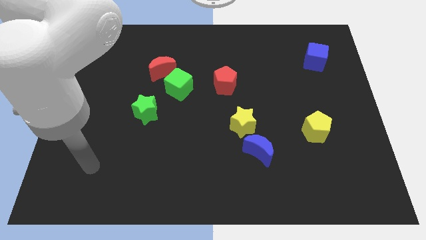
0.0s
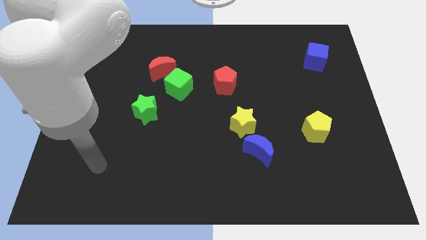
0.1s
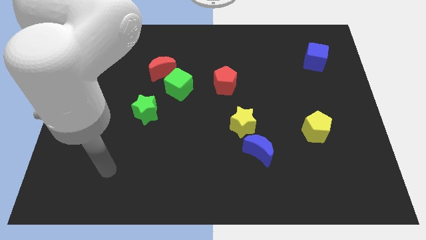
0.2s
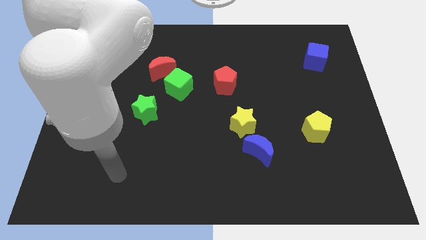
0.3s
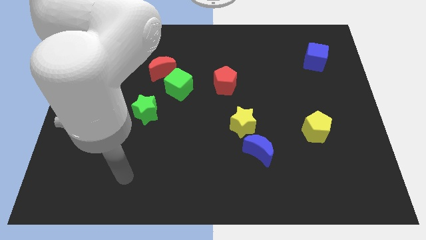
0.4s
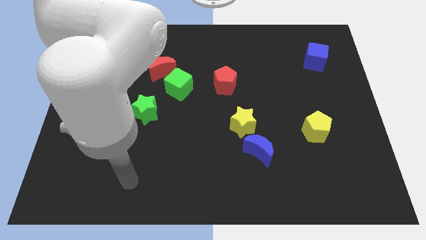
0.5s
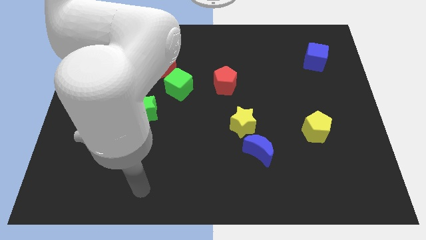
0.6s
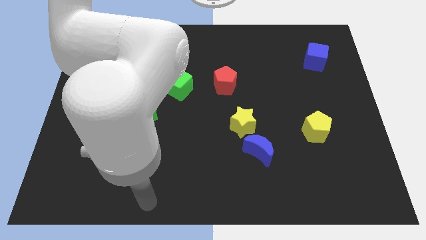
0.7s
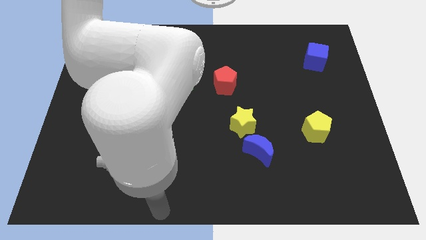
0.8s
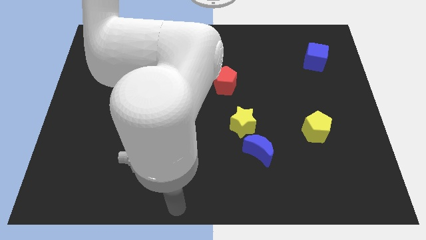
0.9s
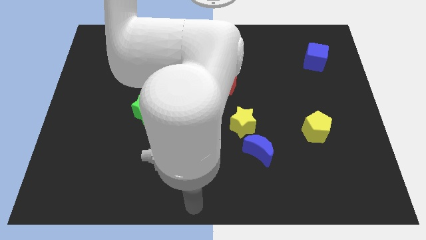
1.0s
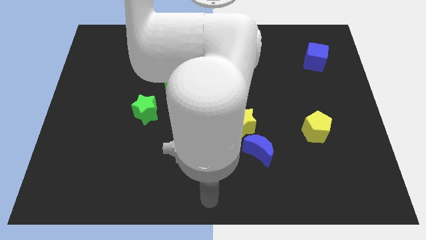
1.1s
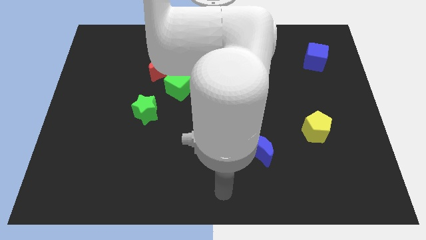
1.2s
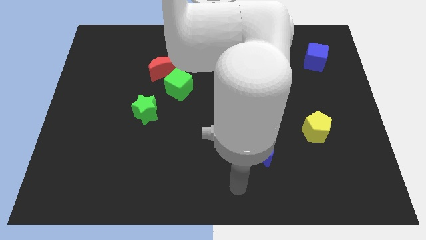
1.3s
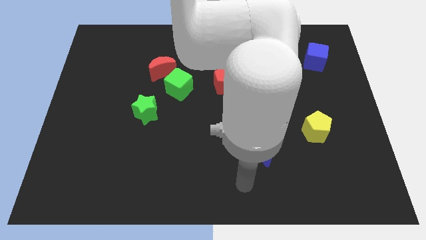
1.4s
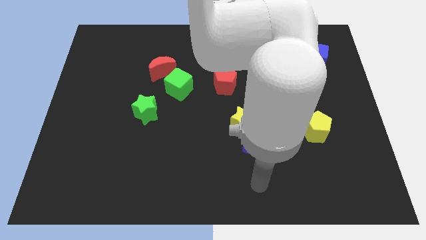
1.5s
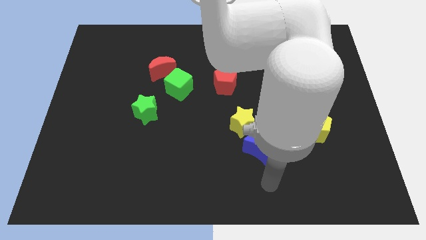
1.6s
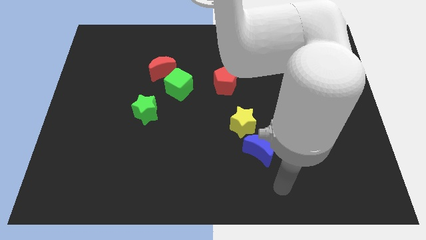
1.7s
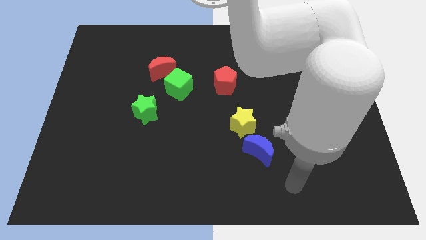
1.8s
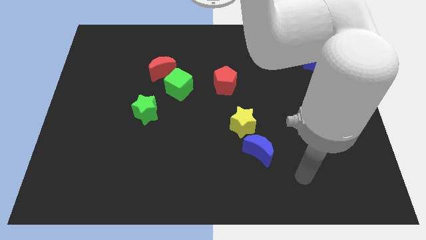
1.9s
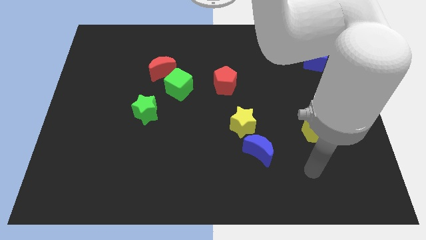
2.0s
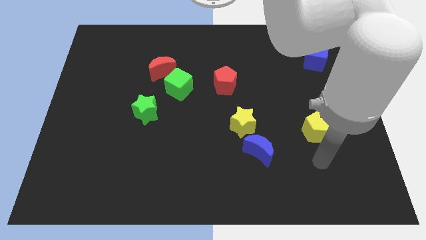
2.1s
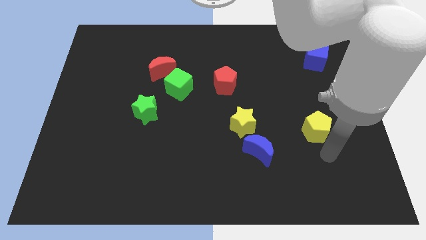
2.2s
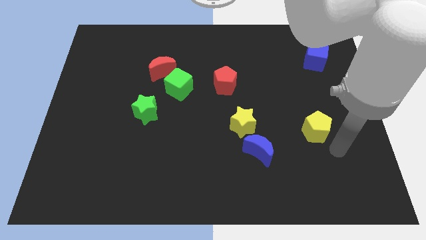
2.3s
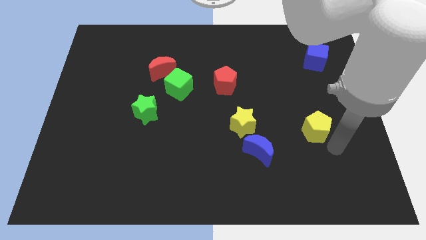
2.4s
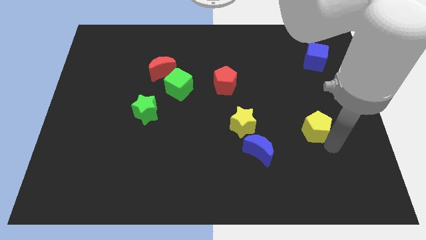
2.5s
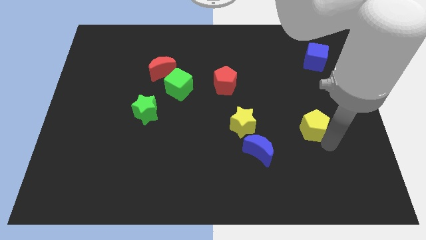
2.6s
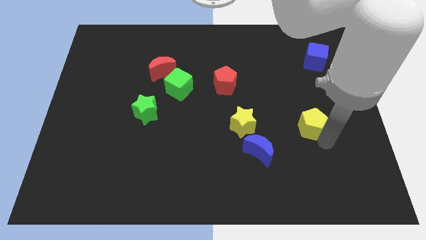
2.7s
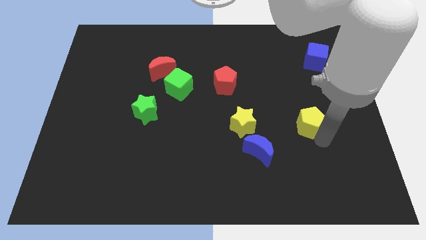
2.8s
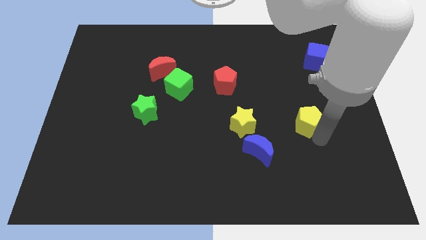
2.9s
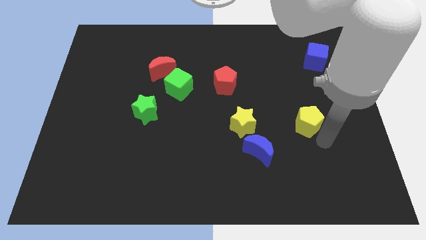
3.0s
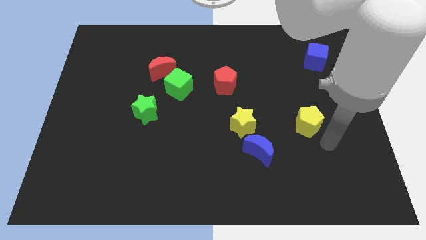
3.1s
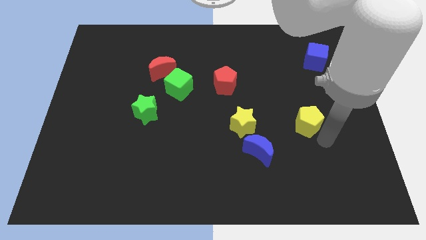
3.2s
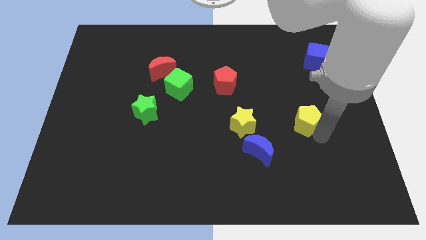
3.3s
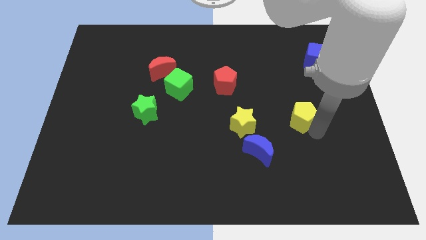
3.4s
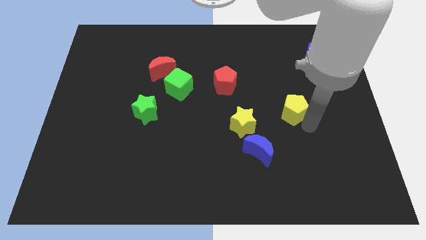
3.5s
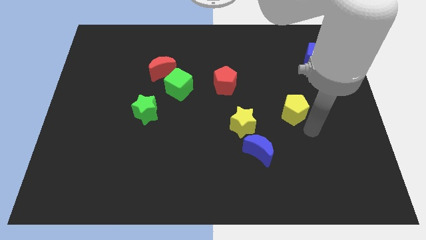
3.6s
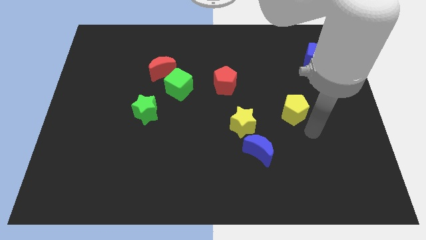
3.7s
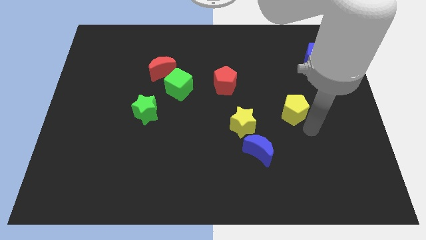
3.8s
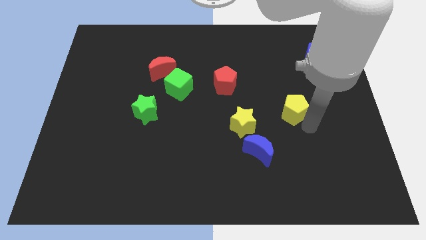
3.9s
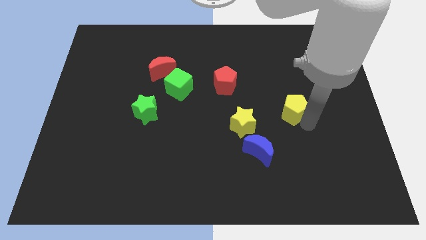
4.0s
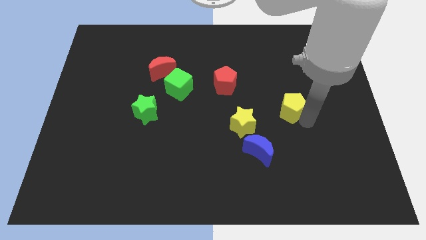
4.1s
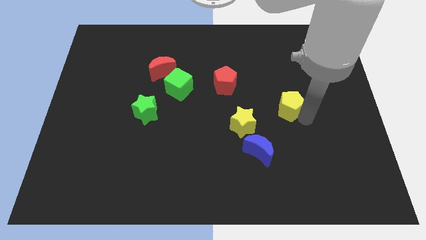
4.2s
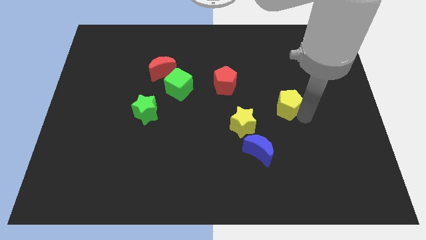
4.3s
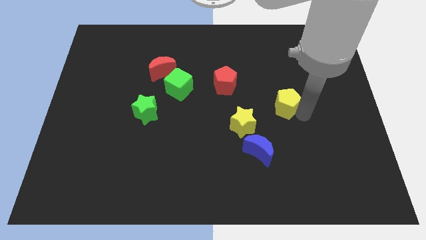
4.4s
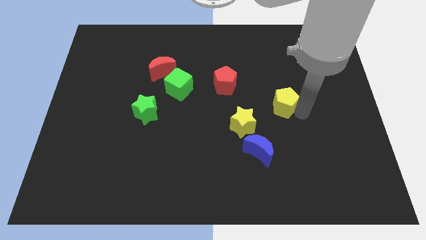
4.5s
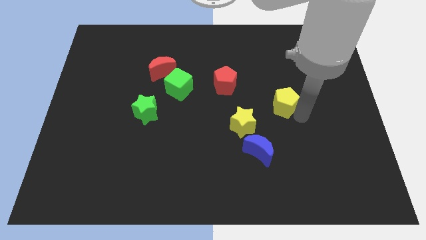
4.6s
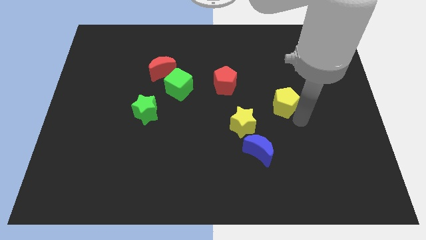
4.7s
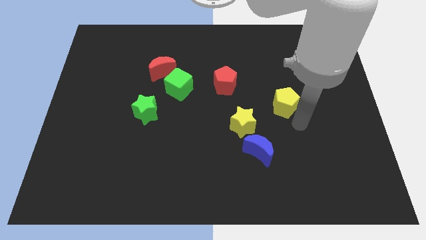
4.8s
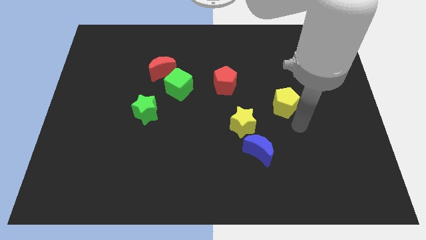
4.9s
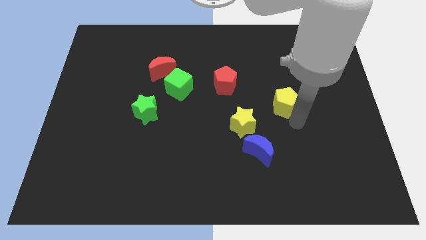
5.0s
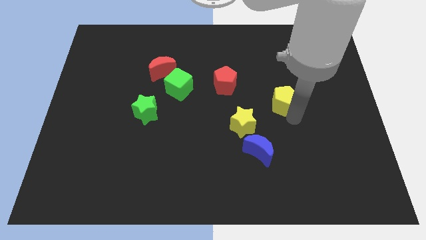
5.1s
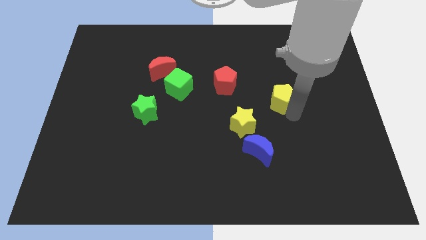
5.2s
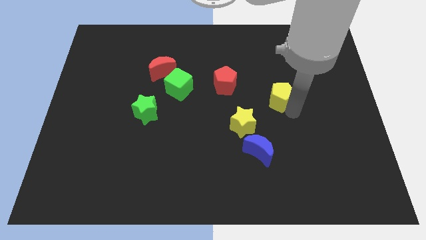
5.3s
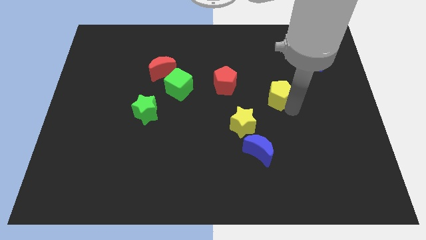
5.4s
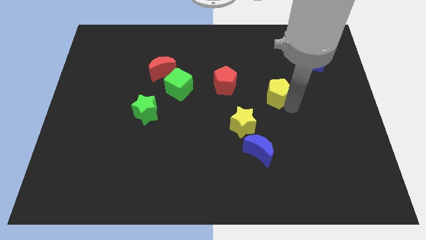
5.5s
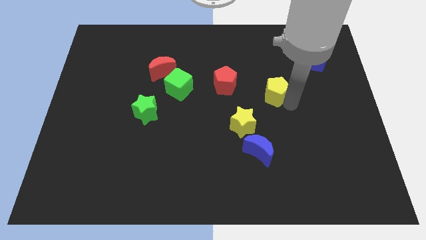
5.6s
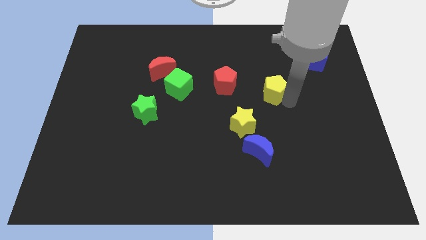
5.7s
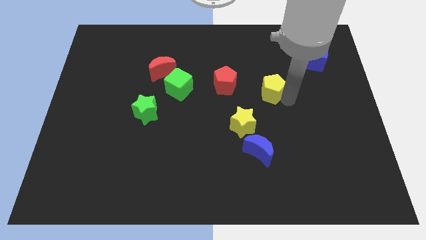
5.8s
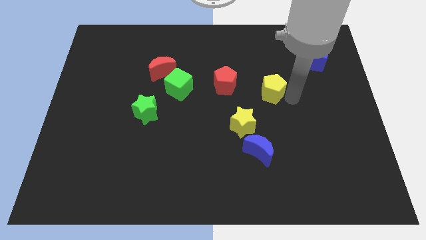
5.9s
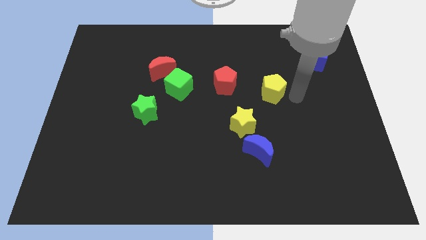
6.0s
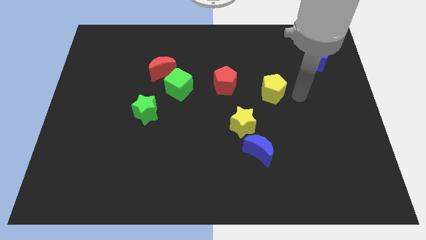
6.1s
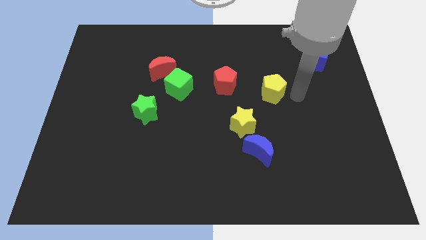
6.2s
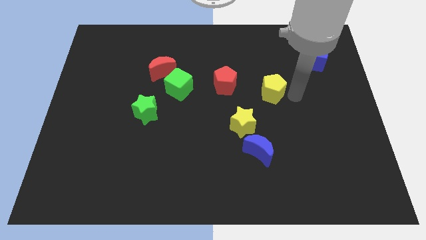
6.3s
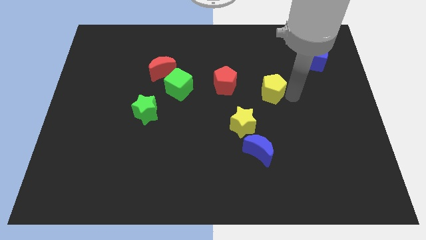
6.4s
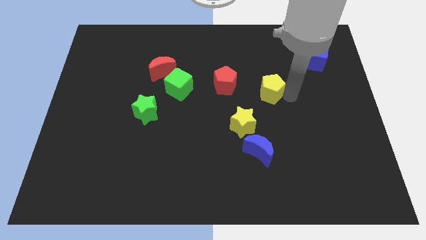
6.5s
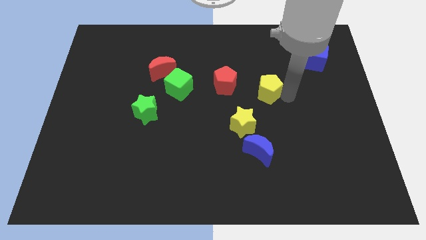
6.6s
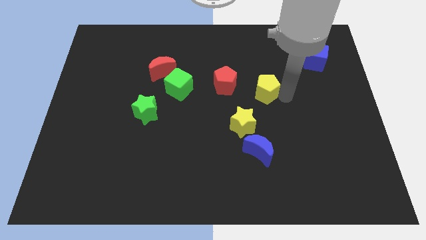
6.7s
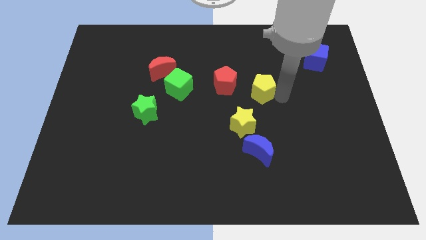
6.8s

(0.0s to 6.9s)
move the yellow pentagon to the middle

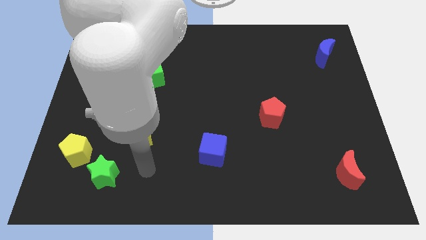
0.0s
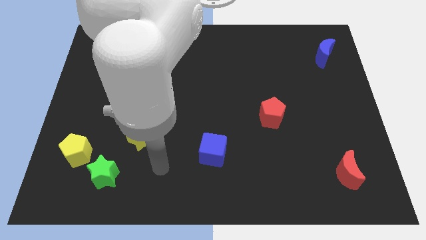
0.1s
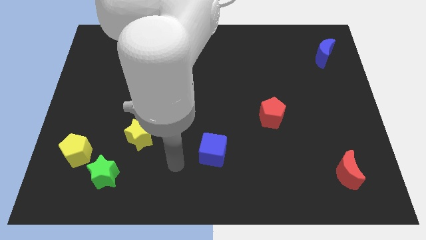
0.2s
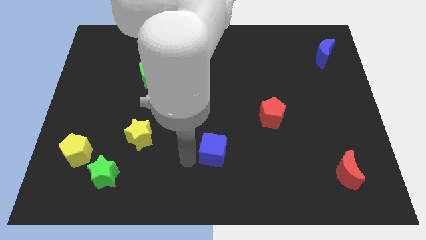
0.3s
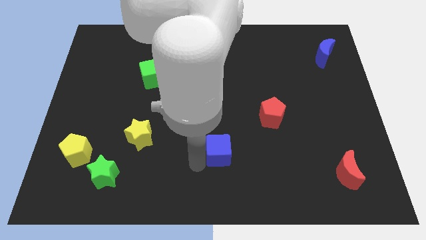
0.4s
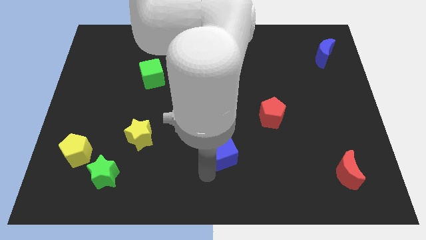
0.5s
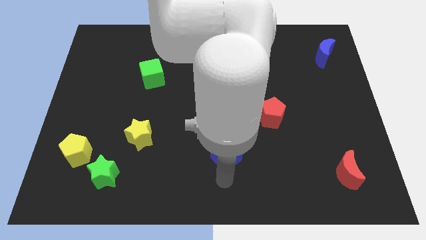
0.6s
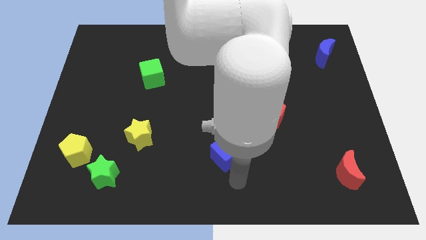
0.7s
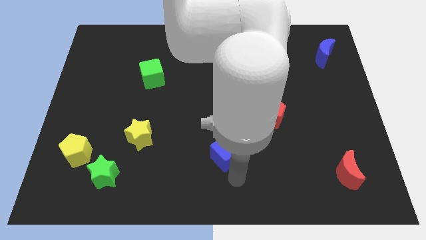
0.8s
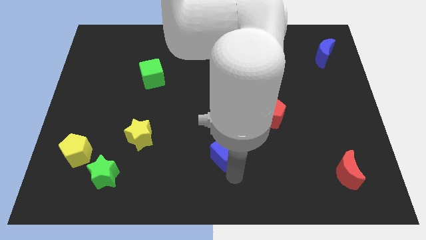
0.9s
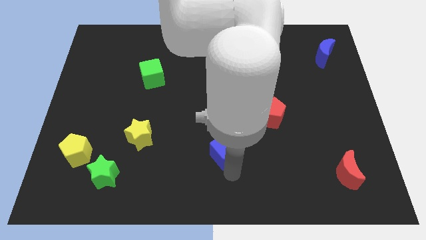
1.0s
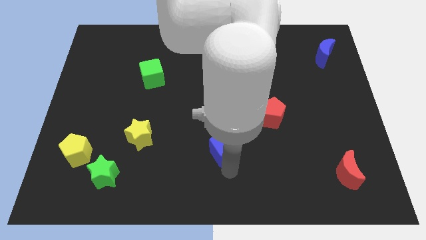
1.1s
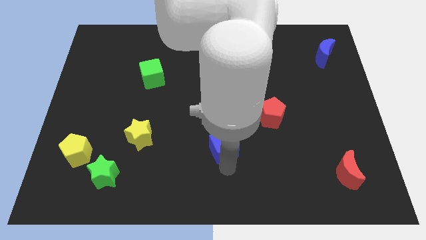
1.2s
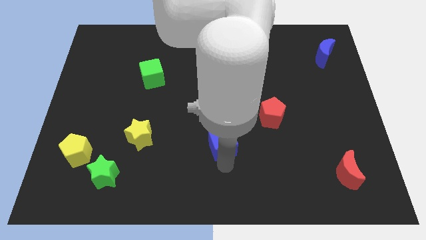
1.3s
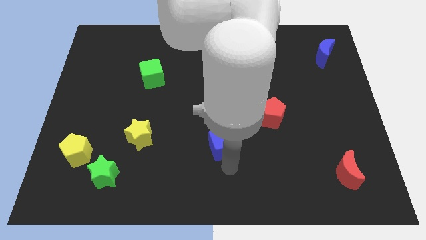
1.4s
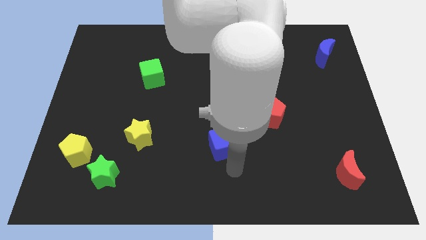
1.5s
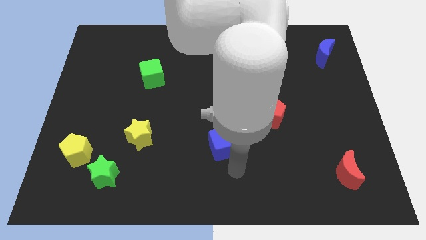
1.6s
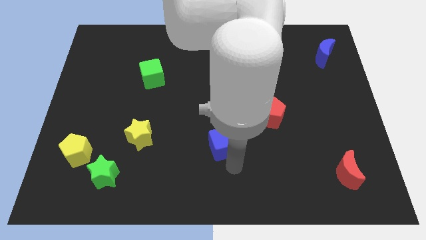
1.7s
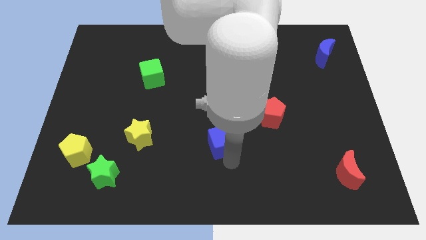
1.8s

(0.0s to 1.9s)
push the blue cube to the middle of the board
